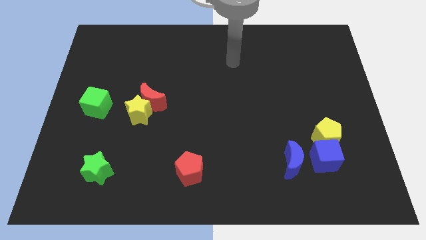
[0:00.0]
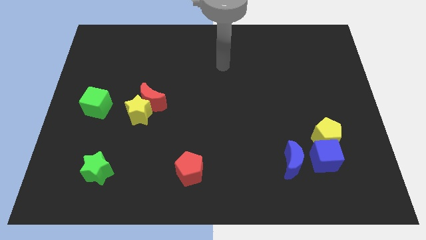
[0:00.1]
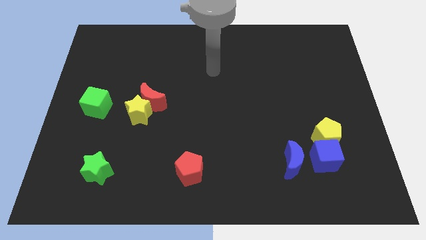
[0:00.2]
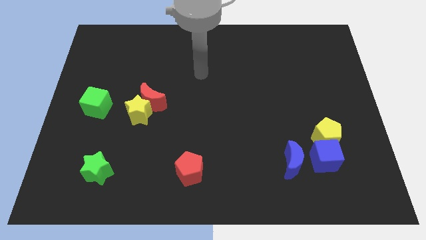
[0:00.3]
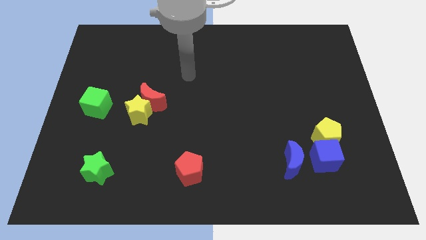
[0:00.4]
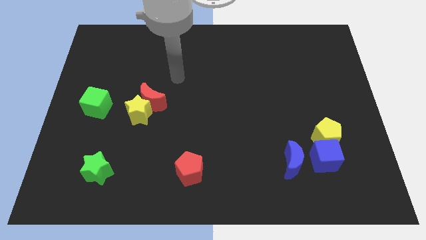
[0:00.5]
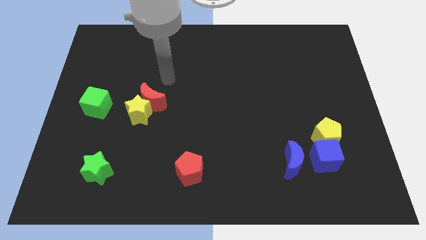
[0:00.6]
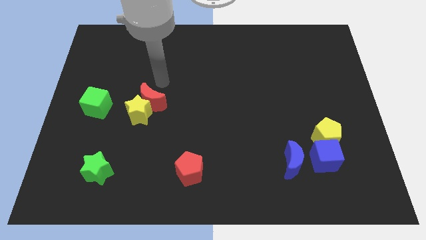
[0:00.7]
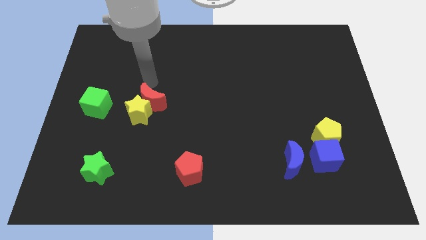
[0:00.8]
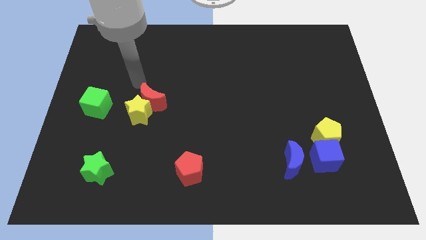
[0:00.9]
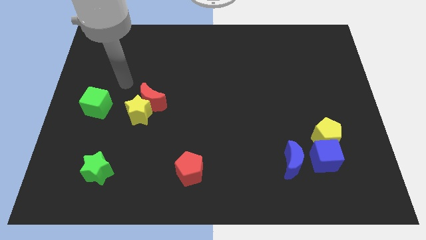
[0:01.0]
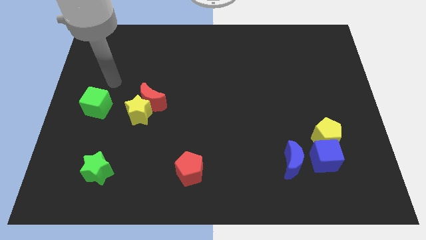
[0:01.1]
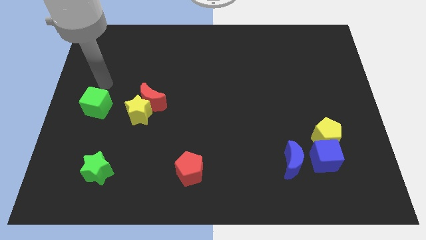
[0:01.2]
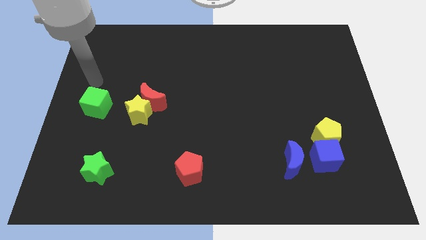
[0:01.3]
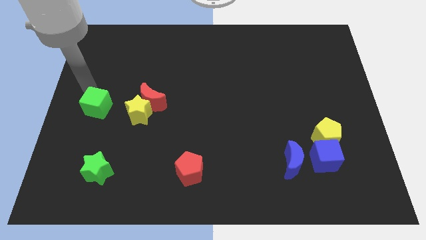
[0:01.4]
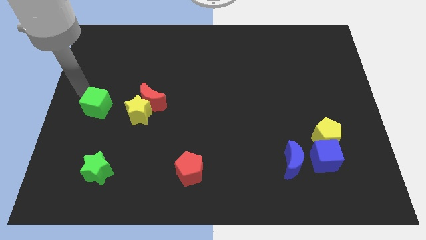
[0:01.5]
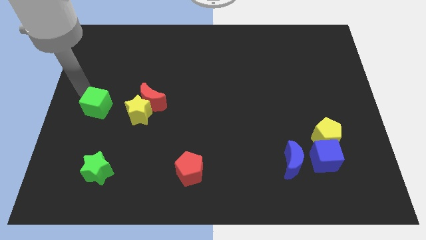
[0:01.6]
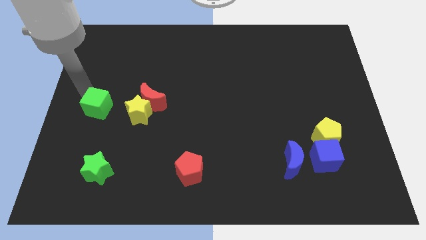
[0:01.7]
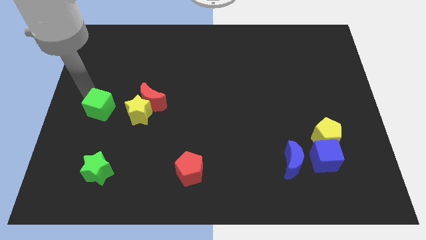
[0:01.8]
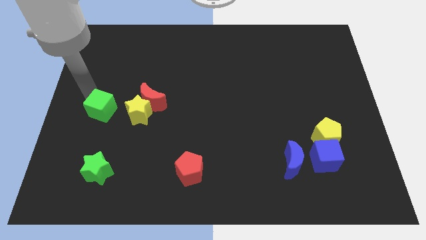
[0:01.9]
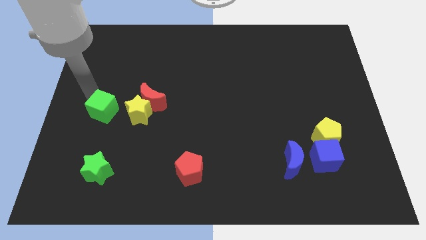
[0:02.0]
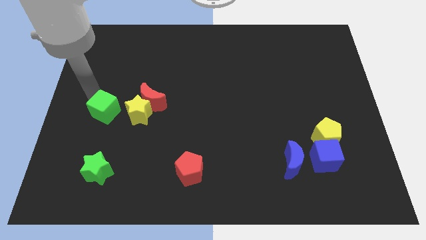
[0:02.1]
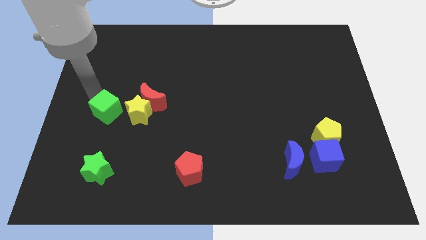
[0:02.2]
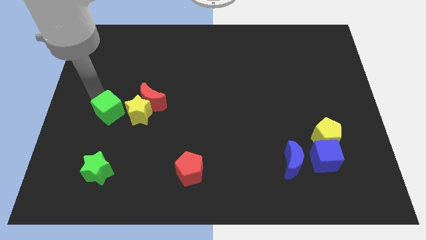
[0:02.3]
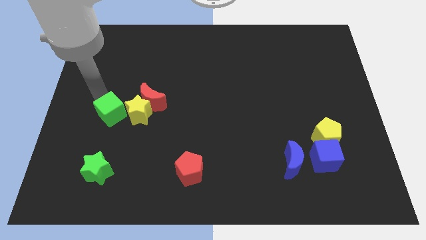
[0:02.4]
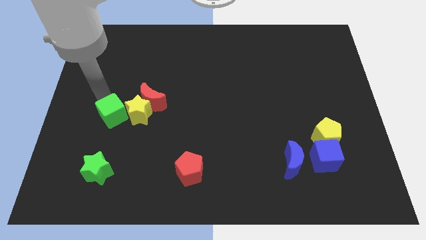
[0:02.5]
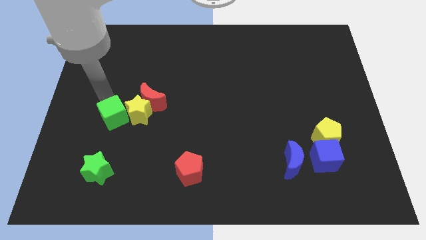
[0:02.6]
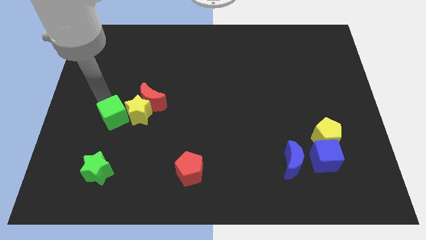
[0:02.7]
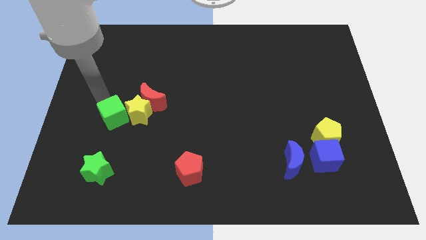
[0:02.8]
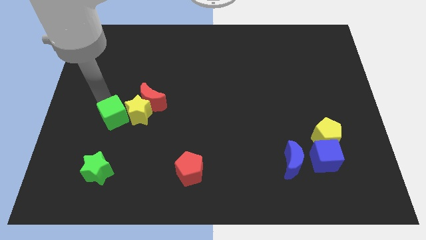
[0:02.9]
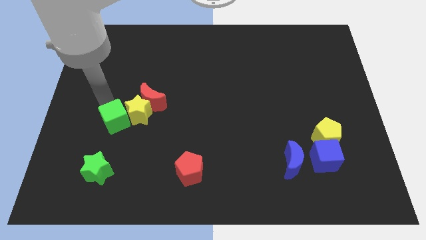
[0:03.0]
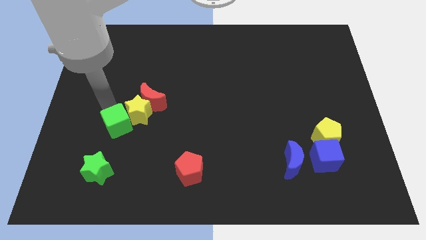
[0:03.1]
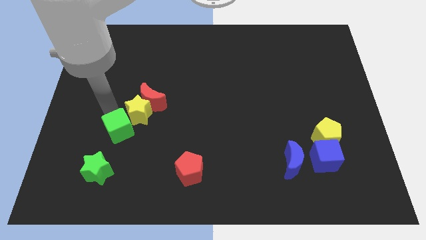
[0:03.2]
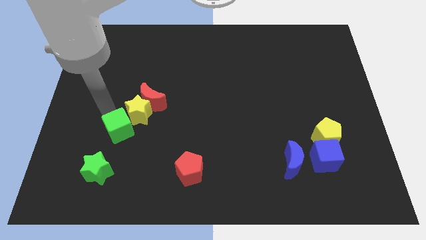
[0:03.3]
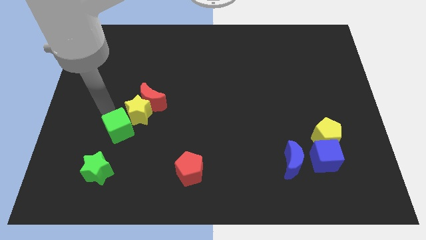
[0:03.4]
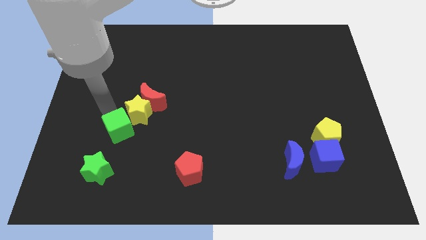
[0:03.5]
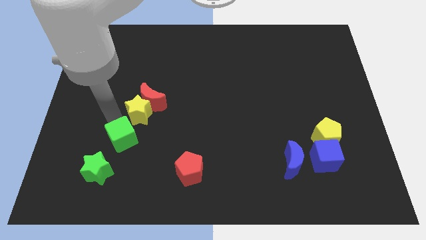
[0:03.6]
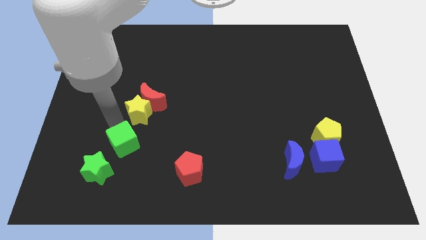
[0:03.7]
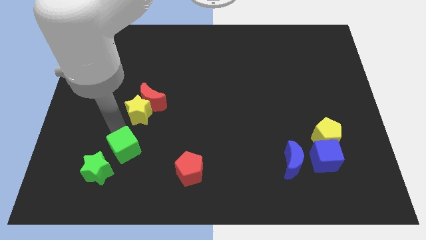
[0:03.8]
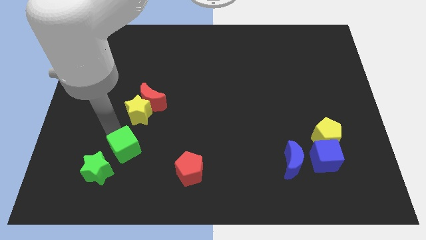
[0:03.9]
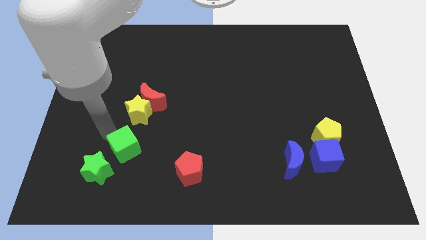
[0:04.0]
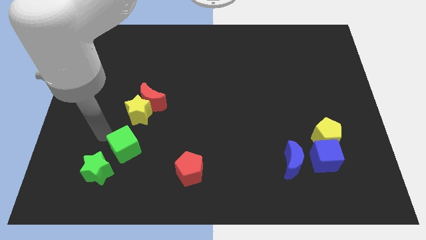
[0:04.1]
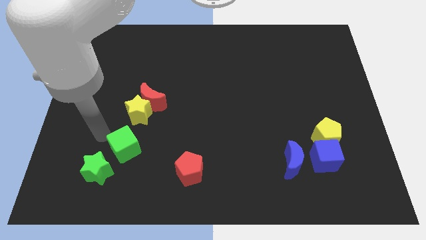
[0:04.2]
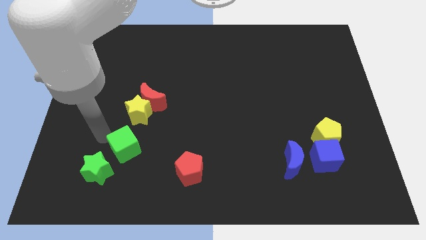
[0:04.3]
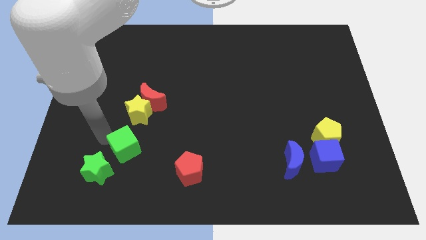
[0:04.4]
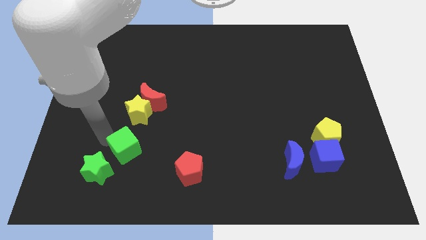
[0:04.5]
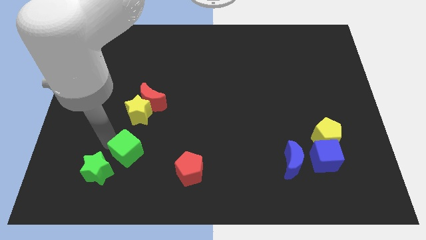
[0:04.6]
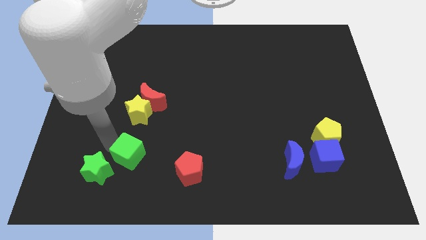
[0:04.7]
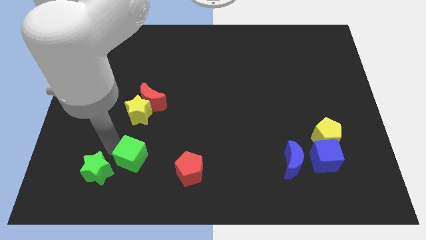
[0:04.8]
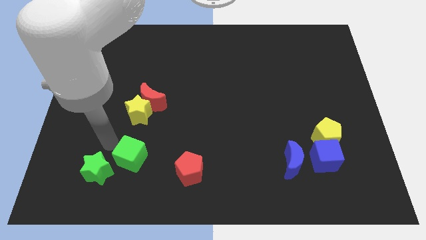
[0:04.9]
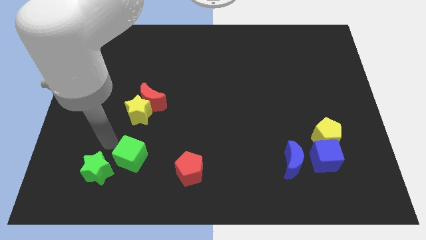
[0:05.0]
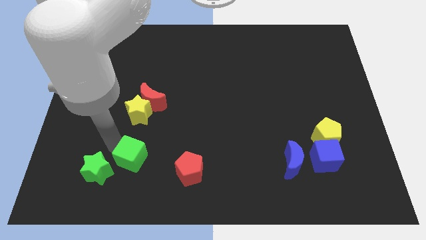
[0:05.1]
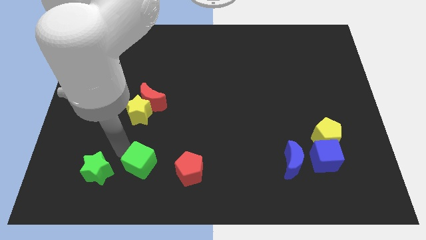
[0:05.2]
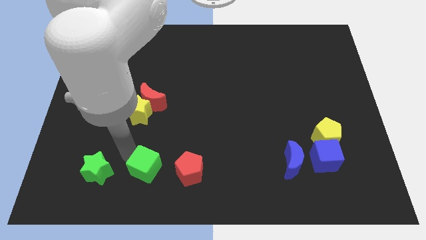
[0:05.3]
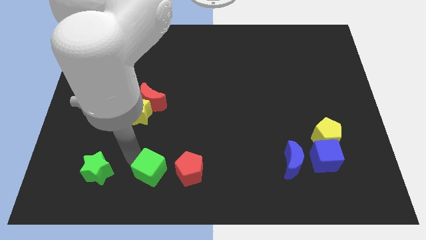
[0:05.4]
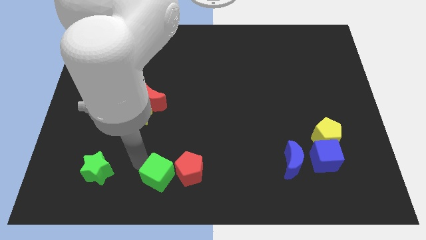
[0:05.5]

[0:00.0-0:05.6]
put the green cube to the bottom

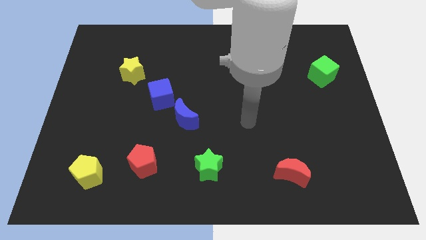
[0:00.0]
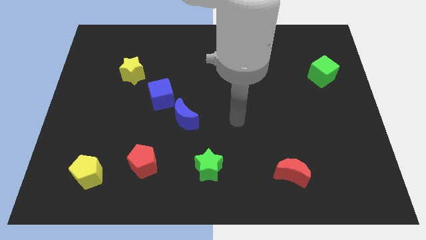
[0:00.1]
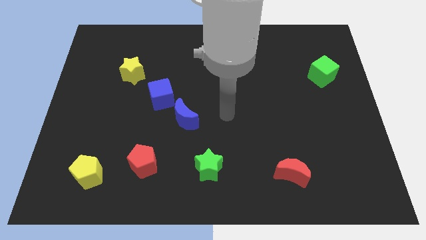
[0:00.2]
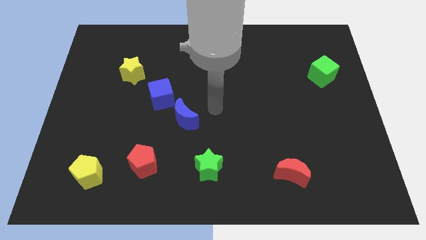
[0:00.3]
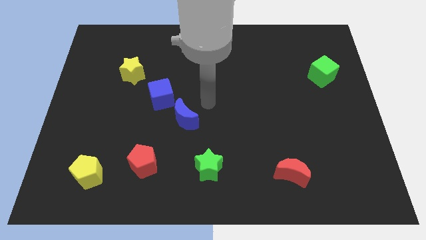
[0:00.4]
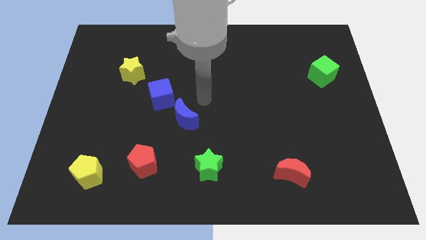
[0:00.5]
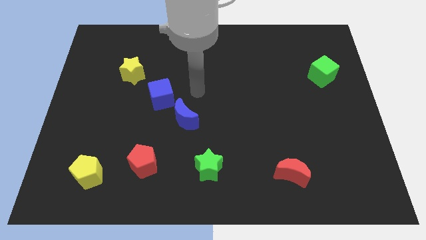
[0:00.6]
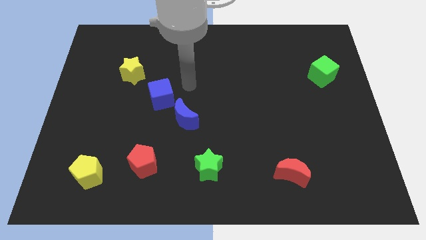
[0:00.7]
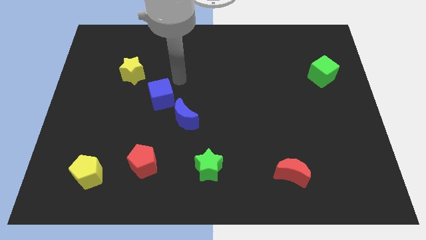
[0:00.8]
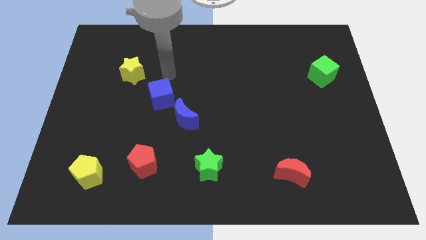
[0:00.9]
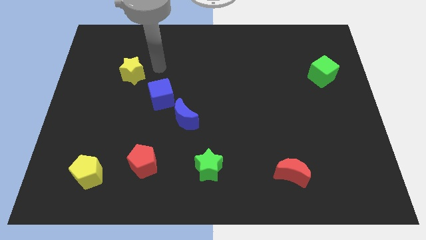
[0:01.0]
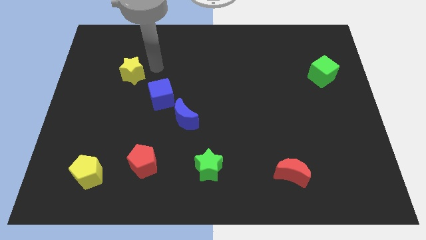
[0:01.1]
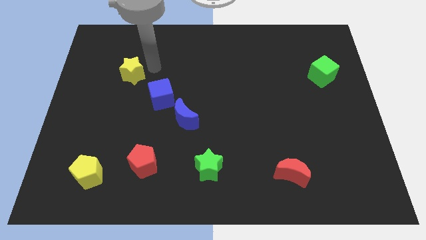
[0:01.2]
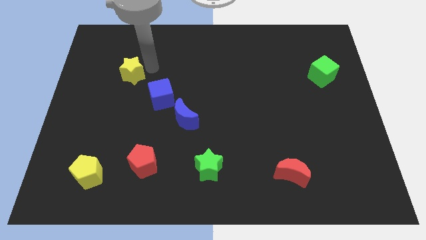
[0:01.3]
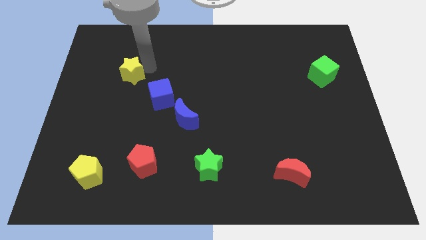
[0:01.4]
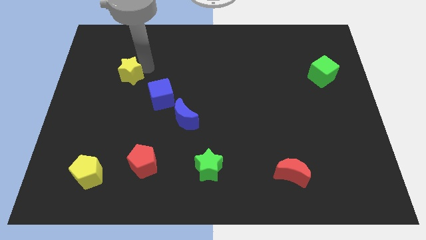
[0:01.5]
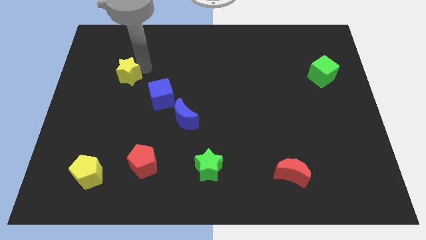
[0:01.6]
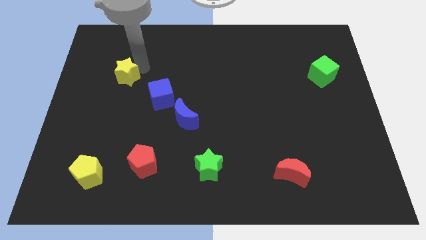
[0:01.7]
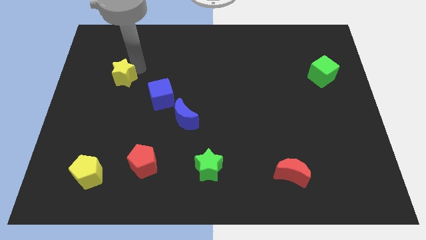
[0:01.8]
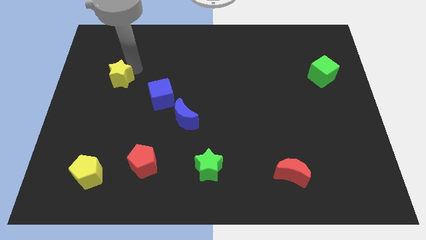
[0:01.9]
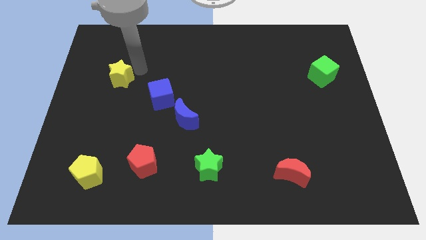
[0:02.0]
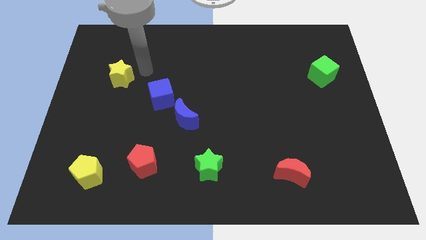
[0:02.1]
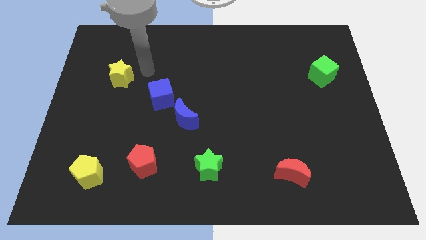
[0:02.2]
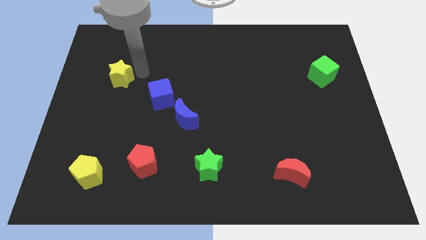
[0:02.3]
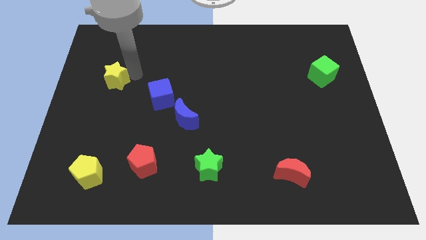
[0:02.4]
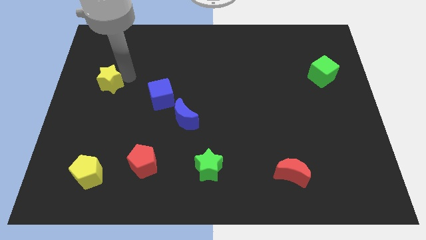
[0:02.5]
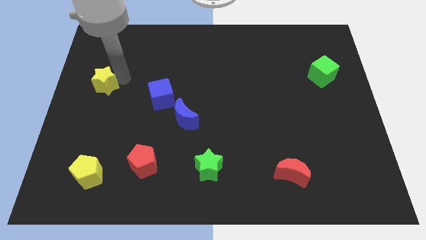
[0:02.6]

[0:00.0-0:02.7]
move the yellow star to the left side
